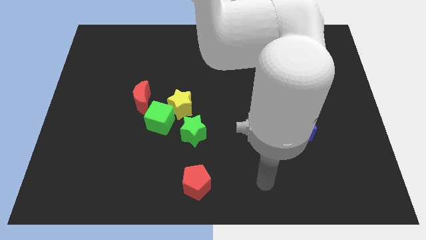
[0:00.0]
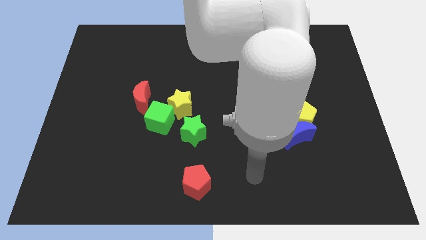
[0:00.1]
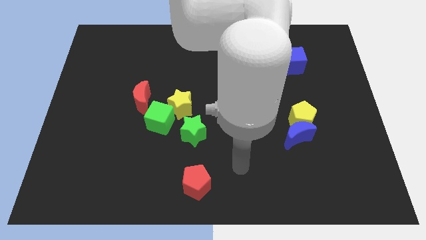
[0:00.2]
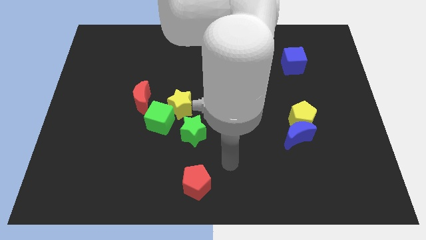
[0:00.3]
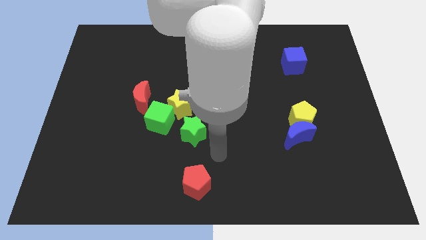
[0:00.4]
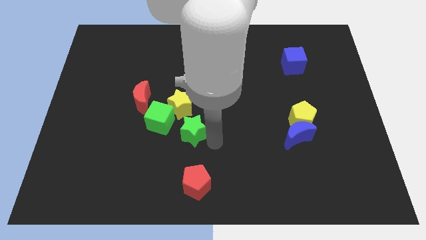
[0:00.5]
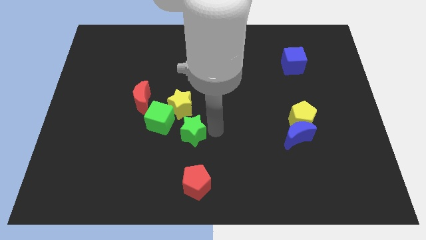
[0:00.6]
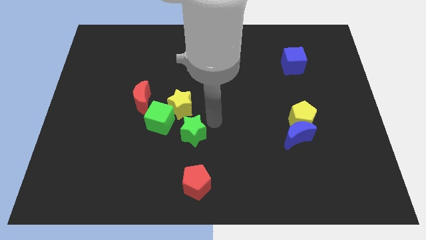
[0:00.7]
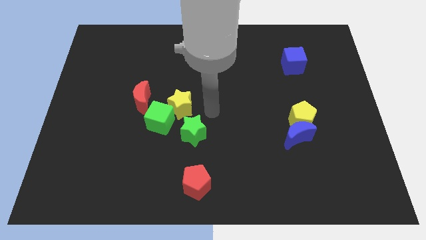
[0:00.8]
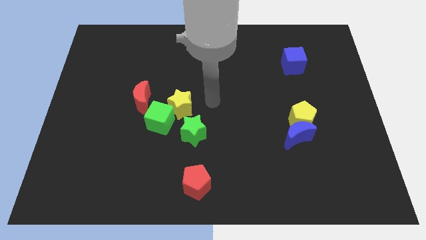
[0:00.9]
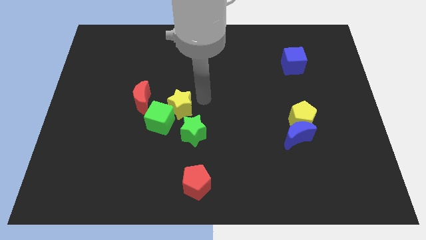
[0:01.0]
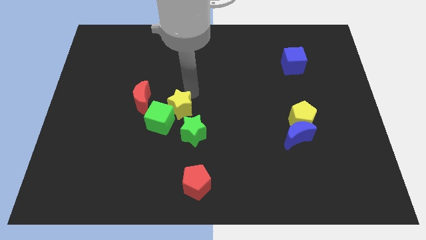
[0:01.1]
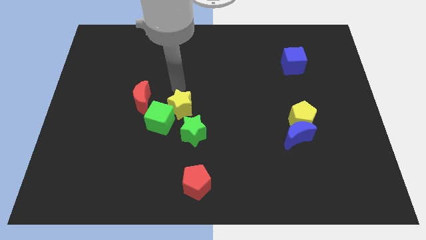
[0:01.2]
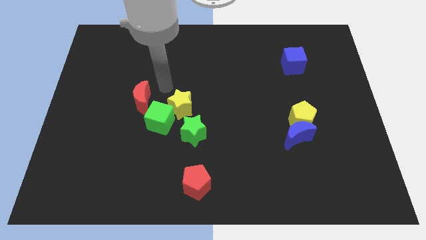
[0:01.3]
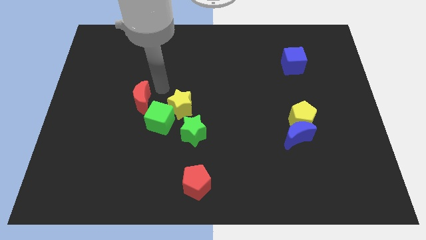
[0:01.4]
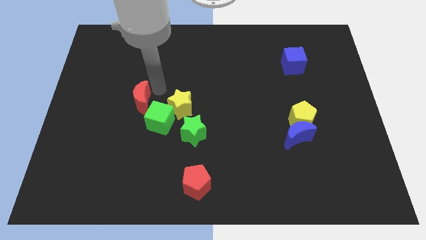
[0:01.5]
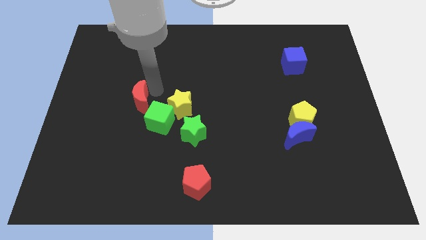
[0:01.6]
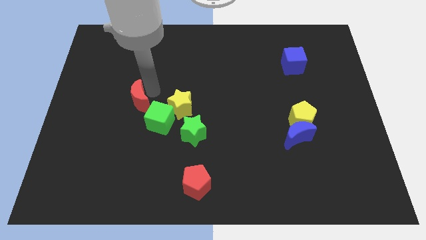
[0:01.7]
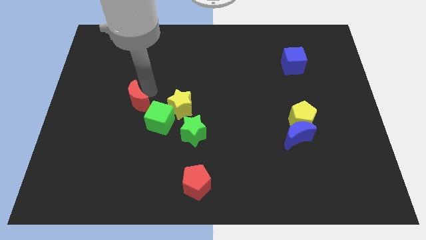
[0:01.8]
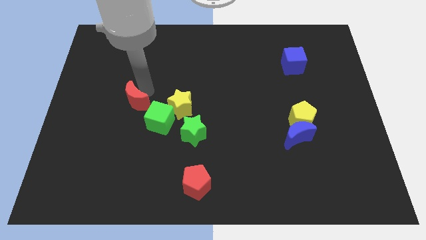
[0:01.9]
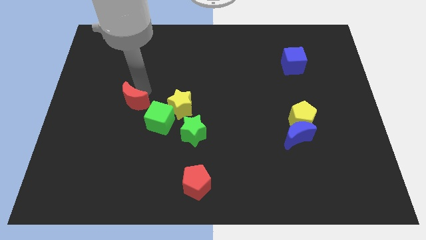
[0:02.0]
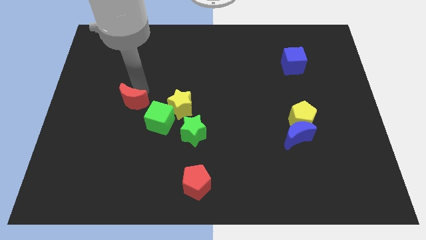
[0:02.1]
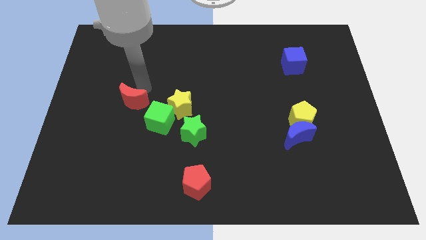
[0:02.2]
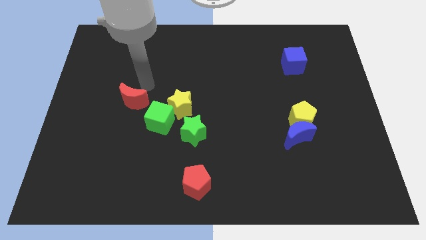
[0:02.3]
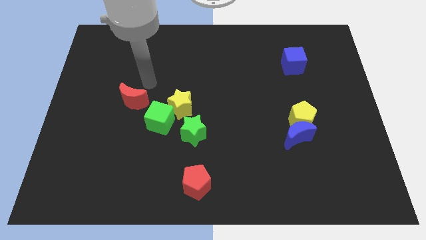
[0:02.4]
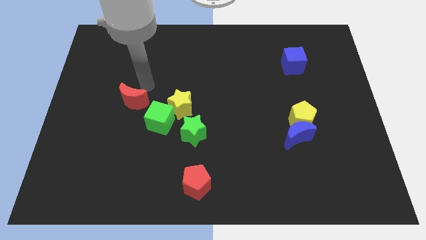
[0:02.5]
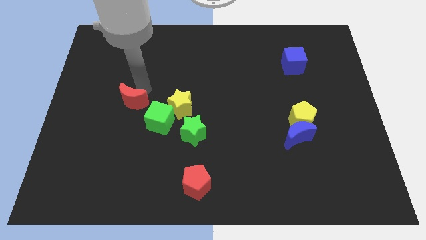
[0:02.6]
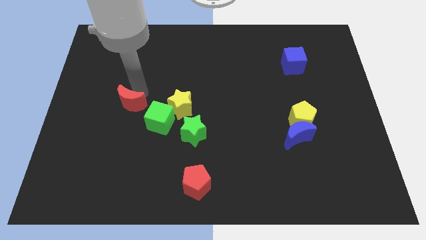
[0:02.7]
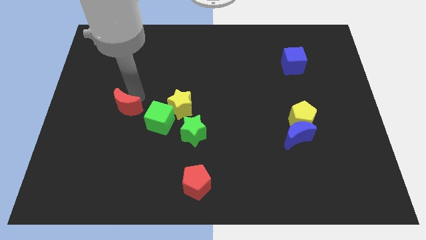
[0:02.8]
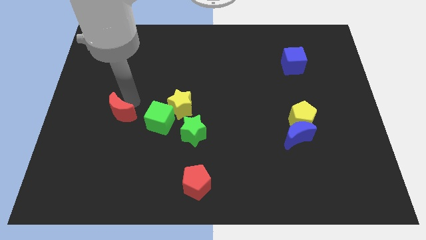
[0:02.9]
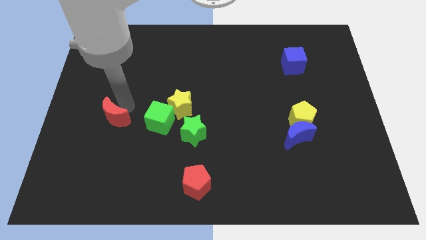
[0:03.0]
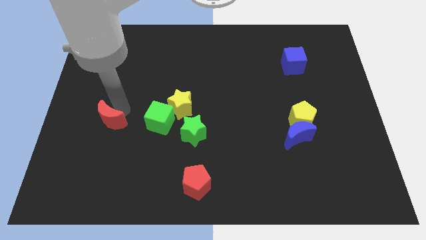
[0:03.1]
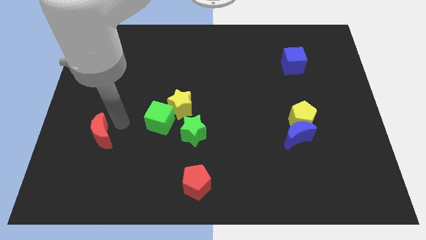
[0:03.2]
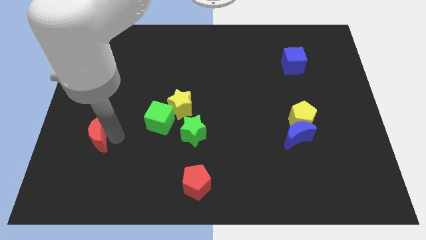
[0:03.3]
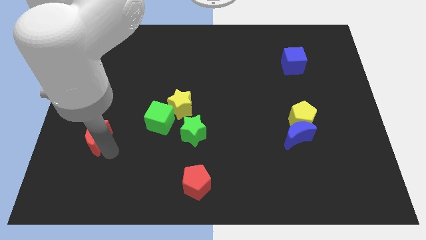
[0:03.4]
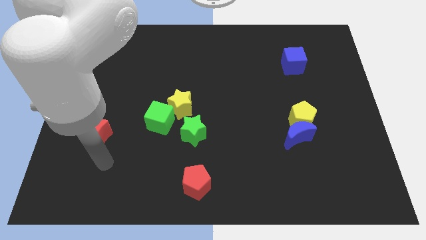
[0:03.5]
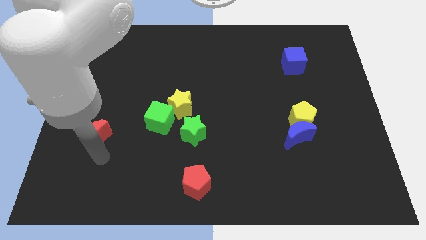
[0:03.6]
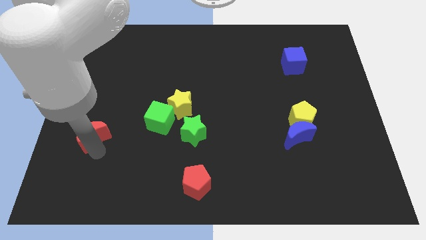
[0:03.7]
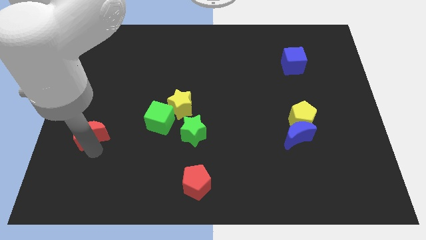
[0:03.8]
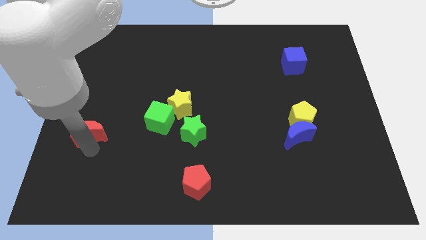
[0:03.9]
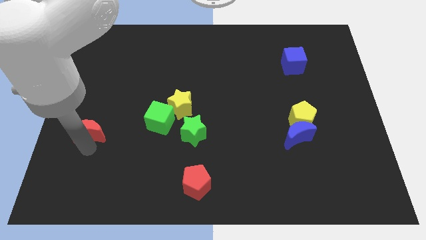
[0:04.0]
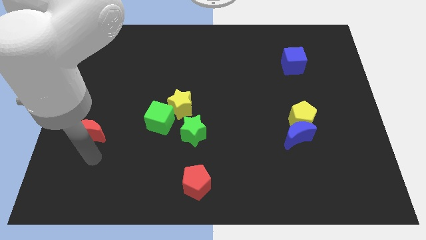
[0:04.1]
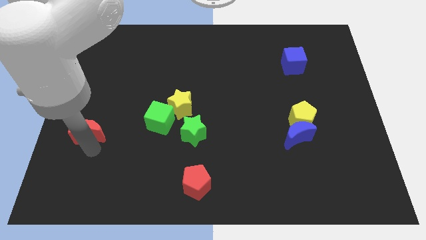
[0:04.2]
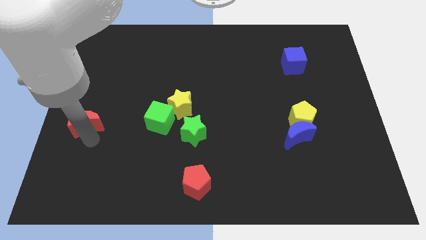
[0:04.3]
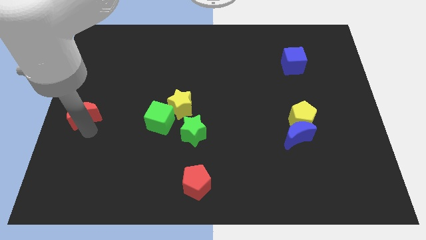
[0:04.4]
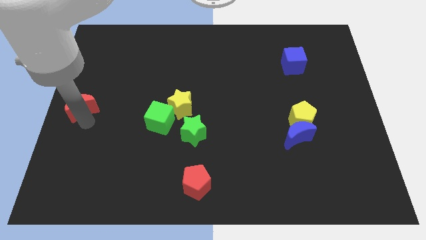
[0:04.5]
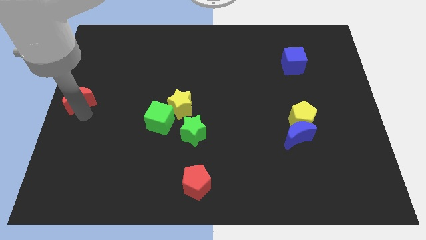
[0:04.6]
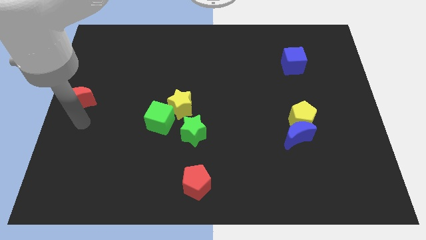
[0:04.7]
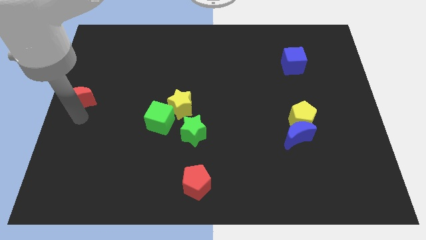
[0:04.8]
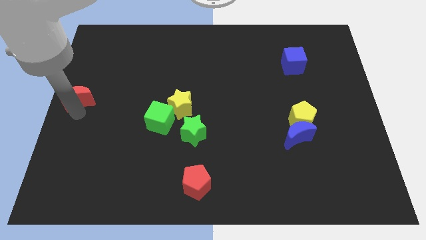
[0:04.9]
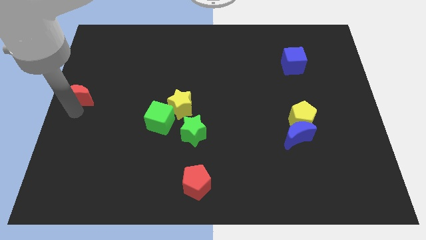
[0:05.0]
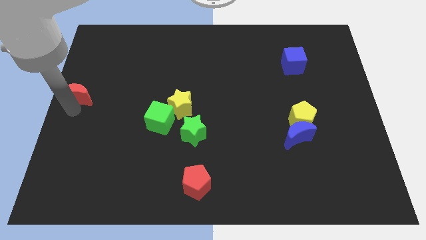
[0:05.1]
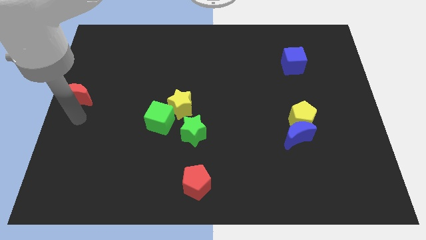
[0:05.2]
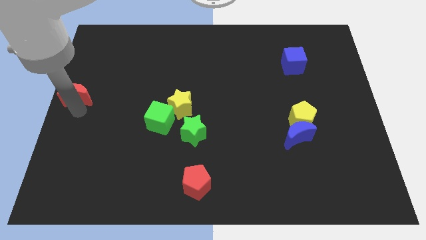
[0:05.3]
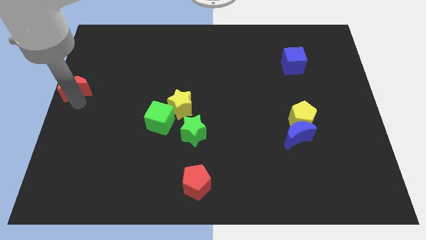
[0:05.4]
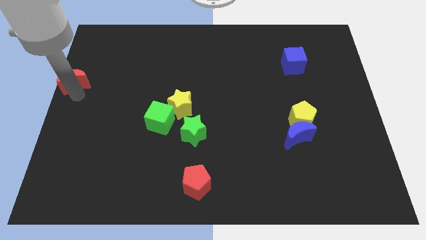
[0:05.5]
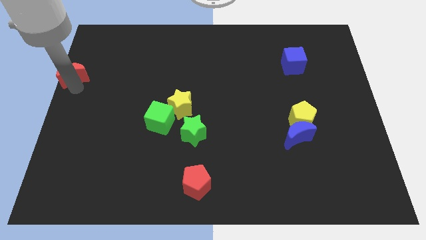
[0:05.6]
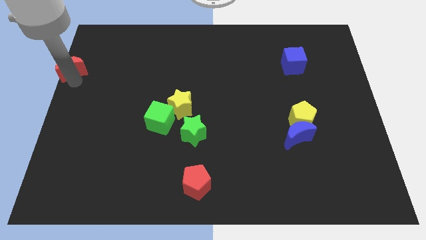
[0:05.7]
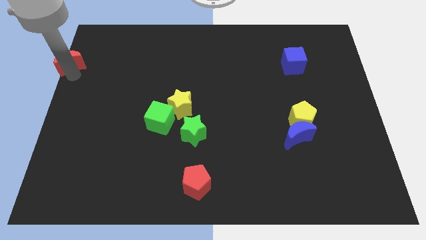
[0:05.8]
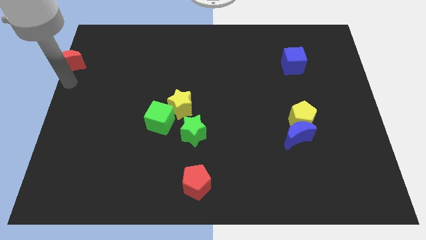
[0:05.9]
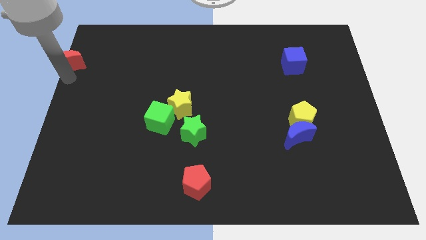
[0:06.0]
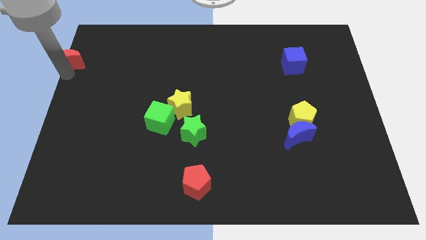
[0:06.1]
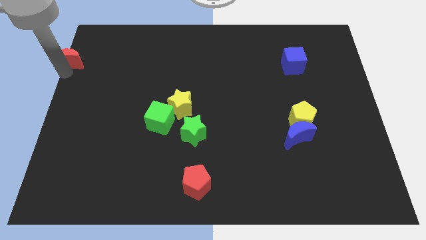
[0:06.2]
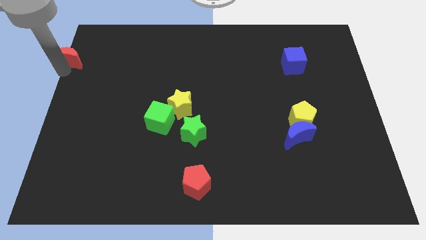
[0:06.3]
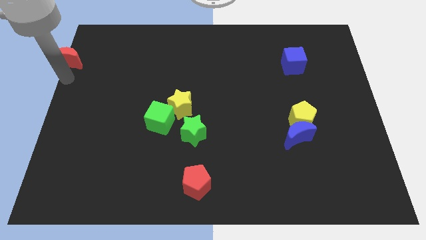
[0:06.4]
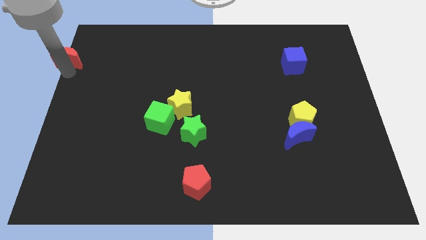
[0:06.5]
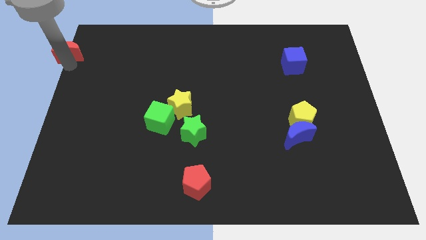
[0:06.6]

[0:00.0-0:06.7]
put the red moon to the top left
